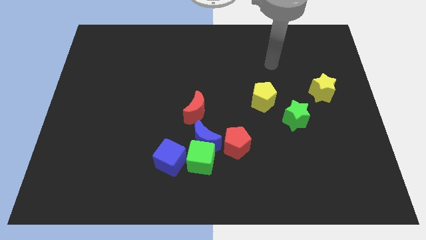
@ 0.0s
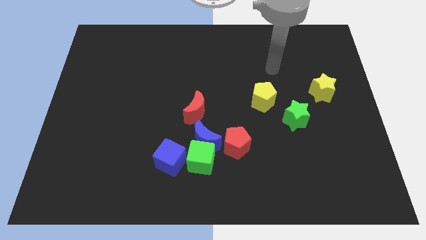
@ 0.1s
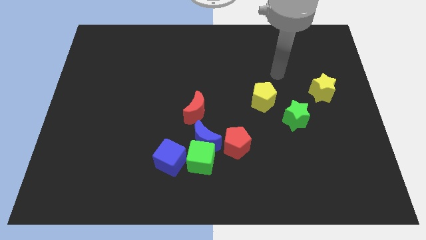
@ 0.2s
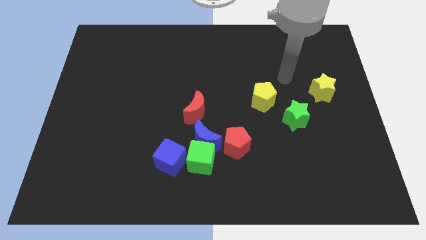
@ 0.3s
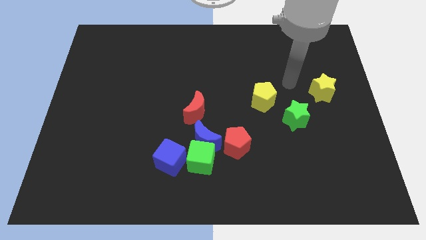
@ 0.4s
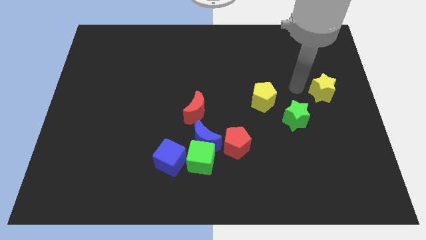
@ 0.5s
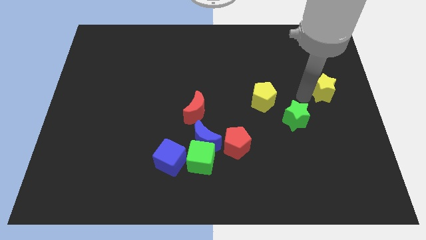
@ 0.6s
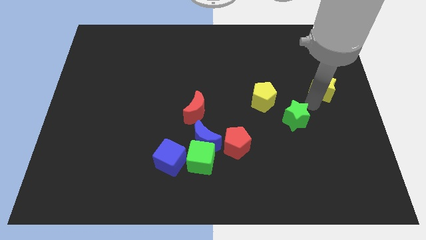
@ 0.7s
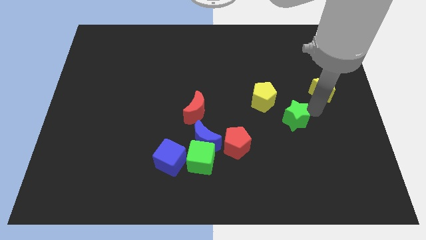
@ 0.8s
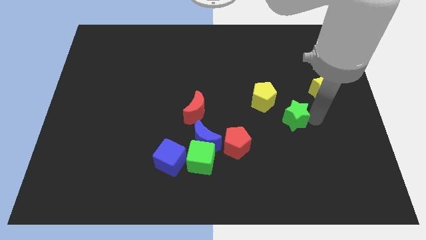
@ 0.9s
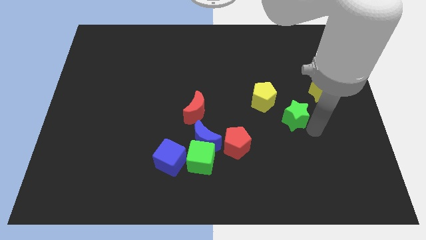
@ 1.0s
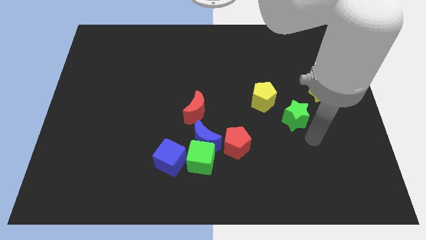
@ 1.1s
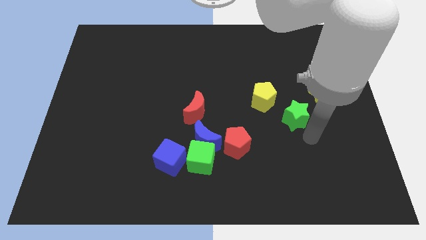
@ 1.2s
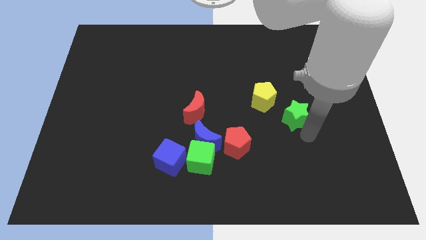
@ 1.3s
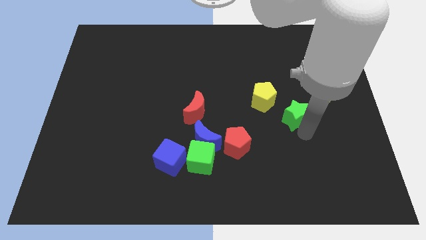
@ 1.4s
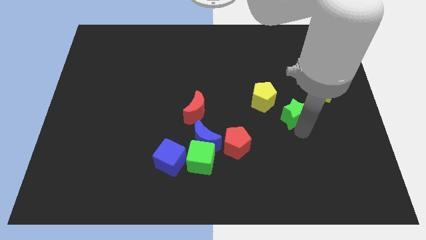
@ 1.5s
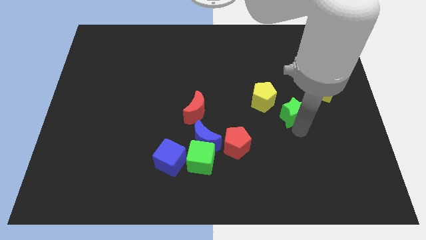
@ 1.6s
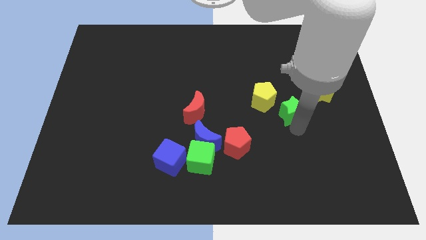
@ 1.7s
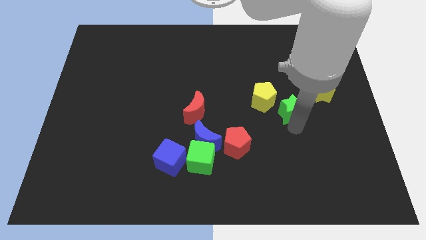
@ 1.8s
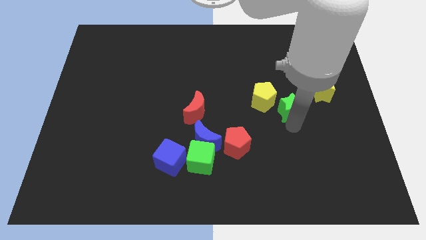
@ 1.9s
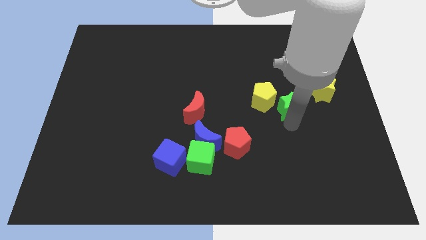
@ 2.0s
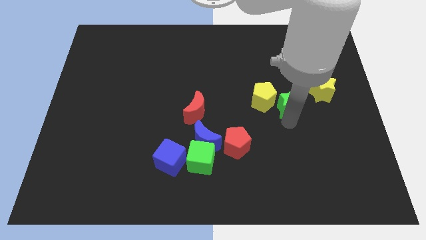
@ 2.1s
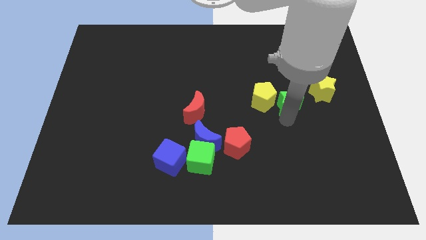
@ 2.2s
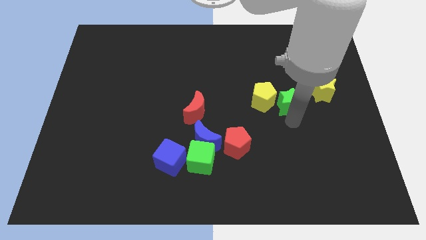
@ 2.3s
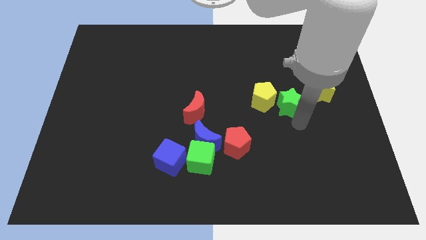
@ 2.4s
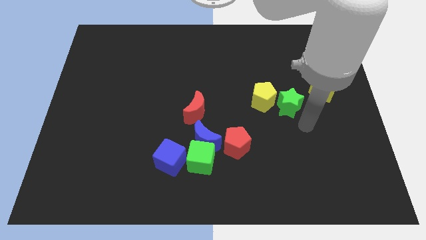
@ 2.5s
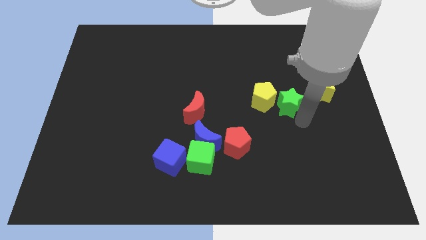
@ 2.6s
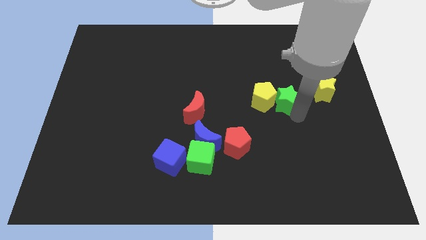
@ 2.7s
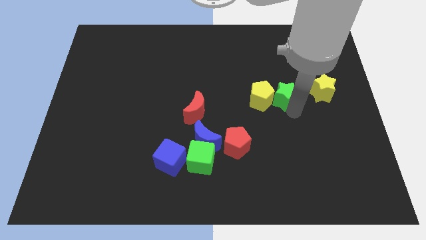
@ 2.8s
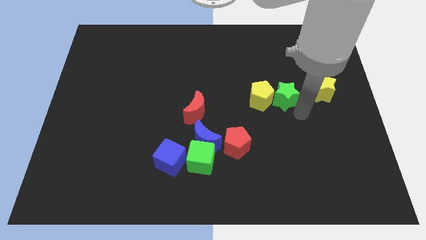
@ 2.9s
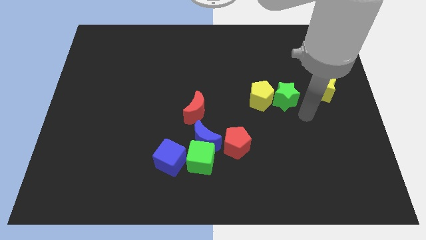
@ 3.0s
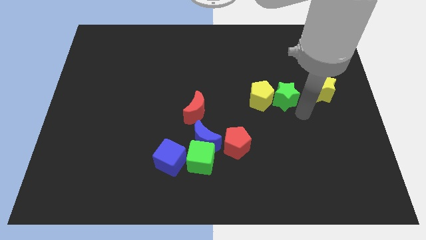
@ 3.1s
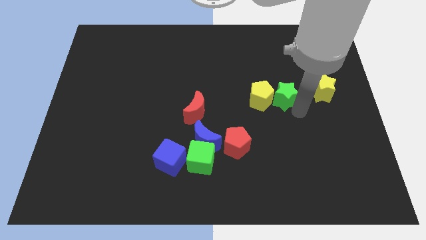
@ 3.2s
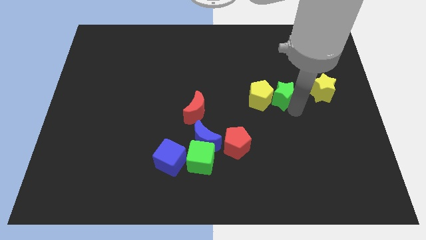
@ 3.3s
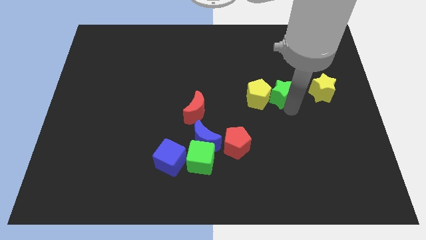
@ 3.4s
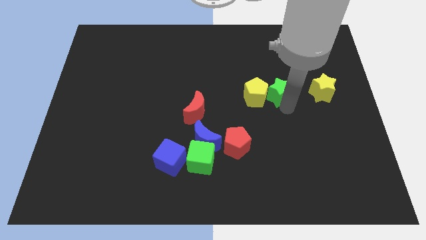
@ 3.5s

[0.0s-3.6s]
slightly push the green star up and to the left diagonally

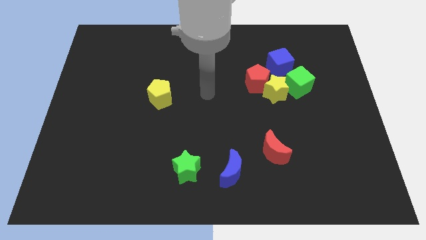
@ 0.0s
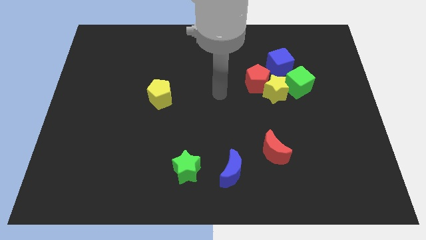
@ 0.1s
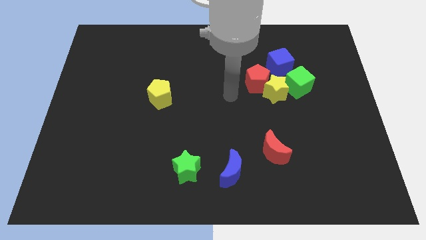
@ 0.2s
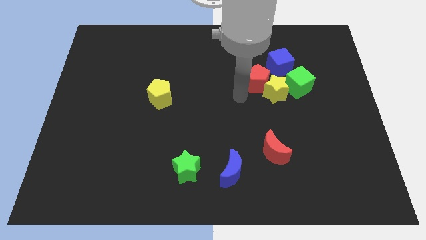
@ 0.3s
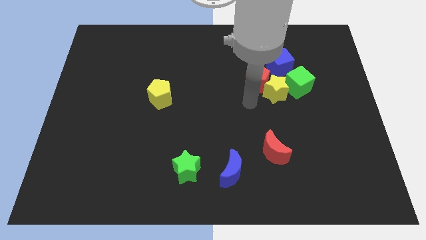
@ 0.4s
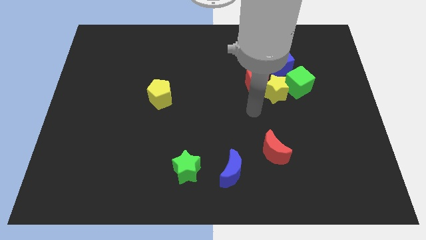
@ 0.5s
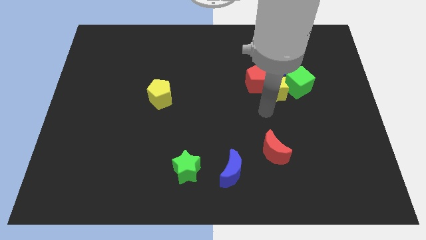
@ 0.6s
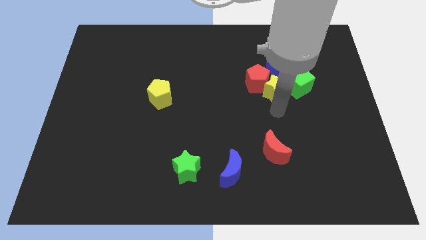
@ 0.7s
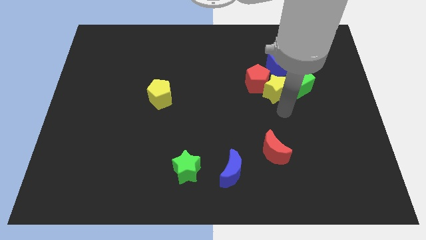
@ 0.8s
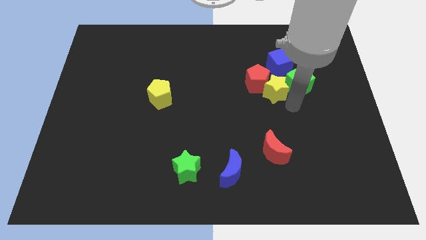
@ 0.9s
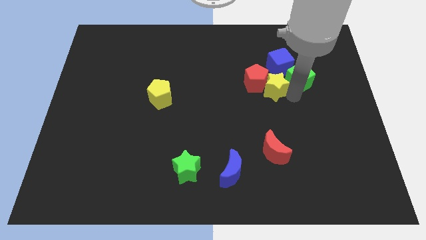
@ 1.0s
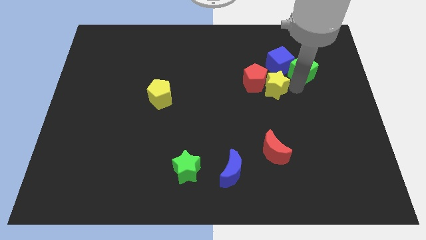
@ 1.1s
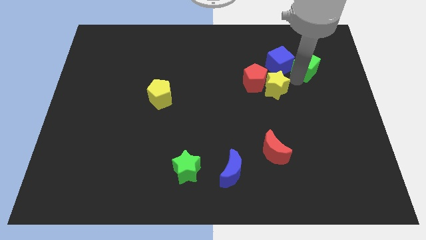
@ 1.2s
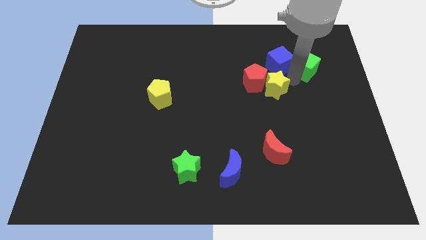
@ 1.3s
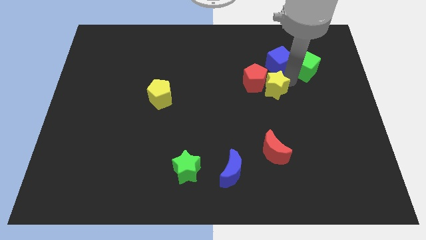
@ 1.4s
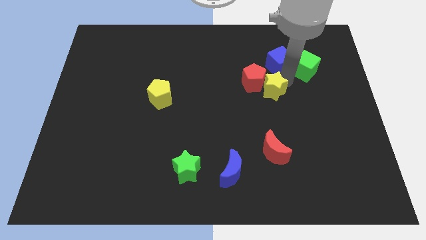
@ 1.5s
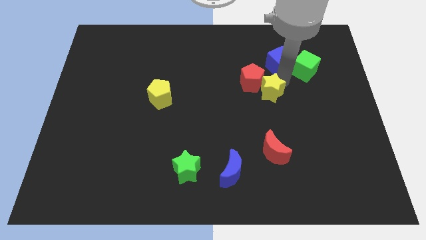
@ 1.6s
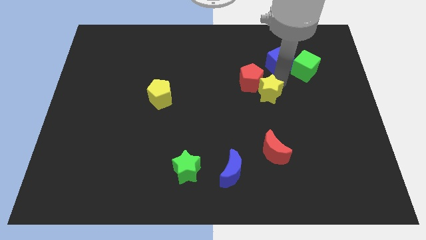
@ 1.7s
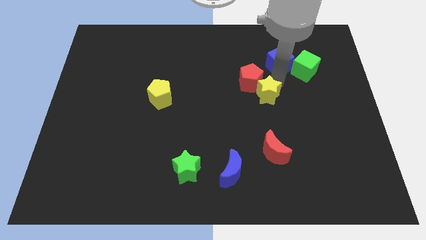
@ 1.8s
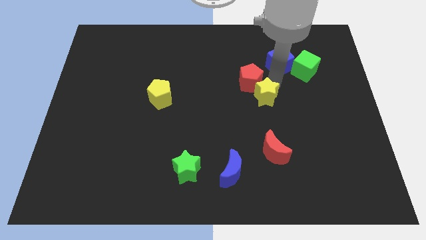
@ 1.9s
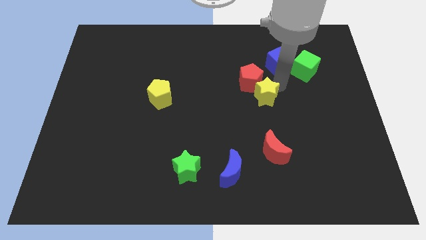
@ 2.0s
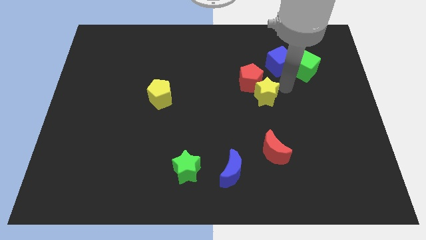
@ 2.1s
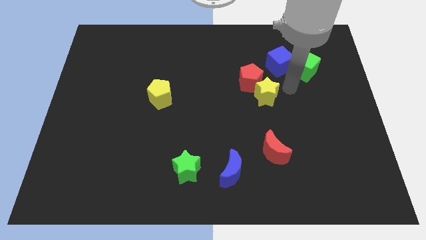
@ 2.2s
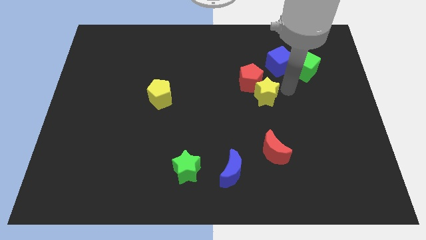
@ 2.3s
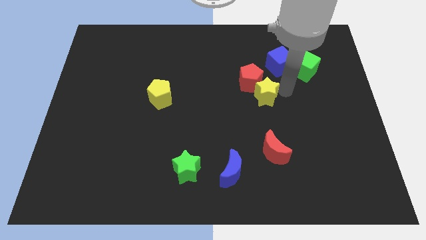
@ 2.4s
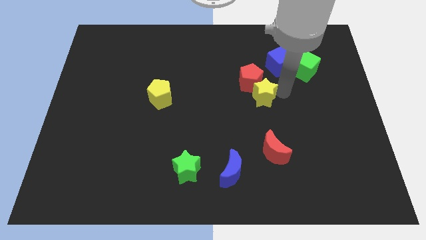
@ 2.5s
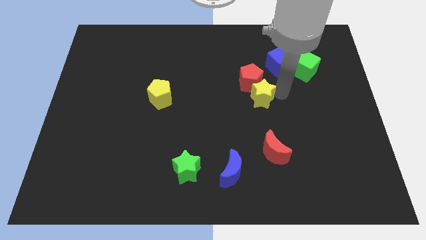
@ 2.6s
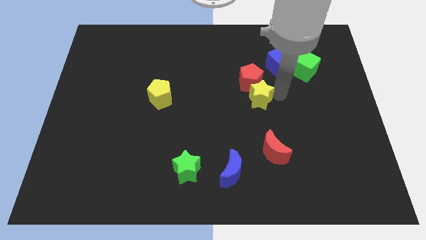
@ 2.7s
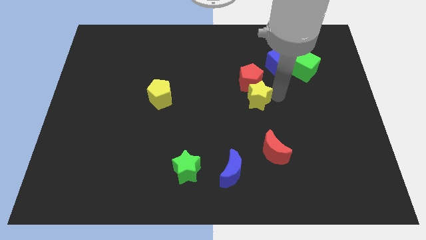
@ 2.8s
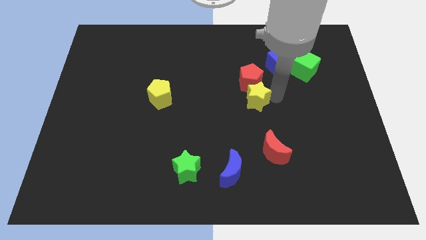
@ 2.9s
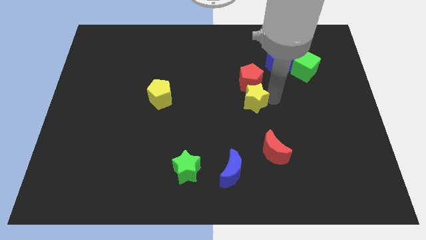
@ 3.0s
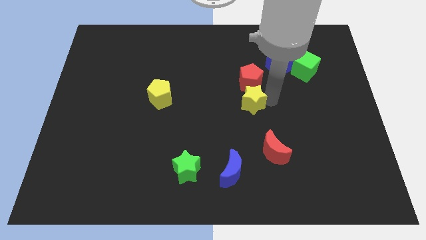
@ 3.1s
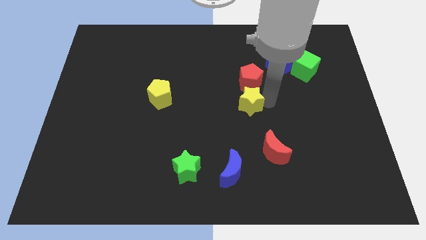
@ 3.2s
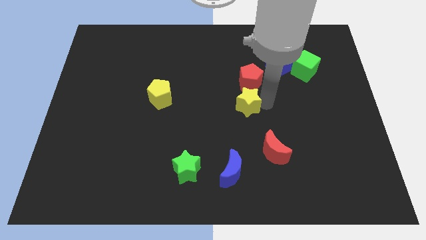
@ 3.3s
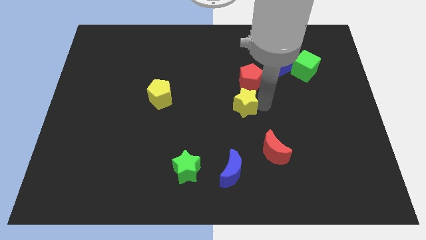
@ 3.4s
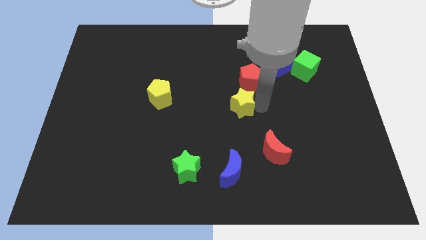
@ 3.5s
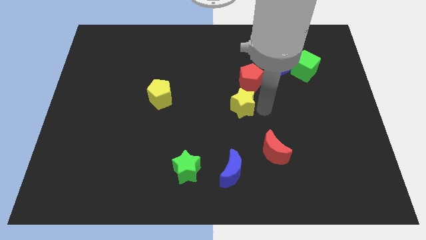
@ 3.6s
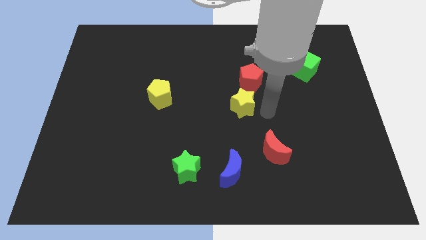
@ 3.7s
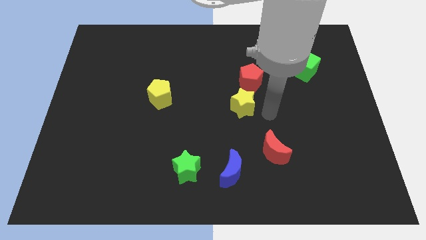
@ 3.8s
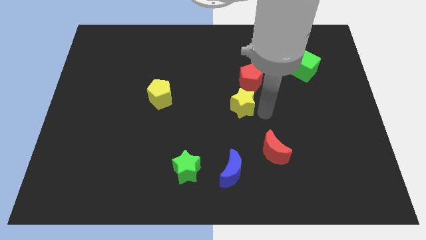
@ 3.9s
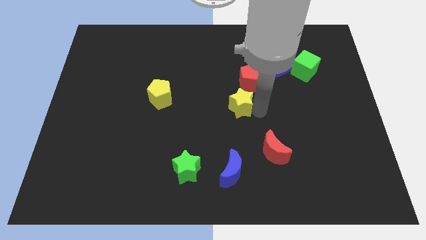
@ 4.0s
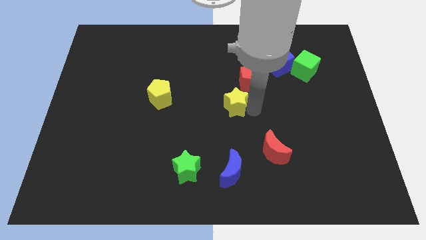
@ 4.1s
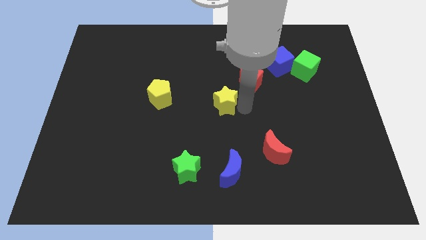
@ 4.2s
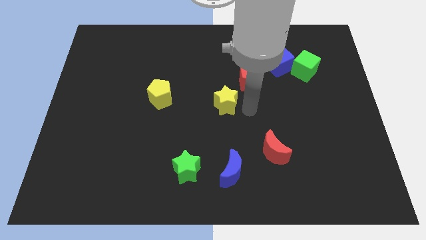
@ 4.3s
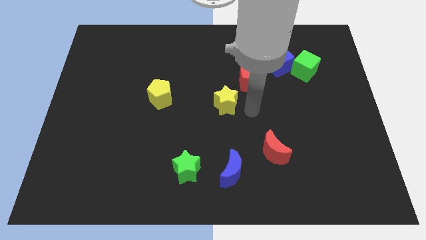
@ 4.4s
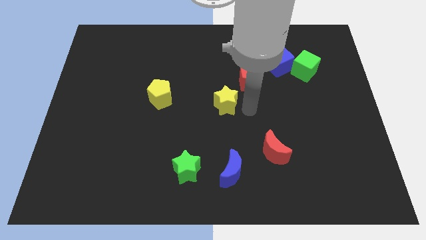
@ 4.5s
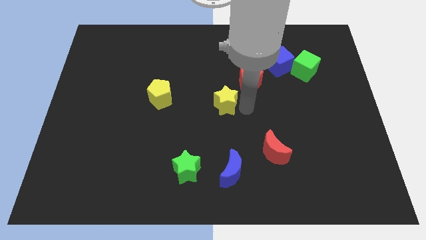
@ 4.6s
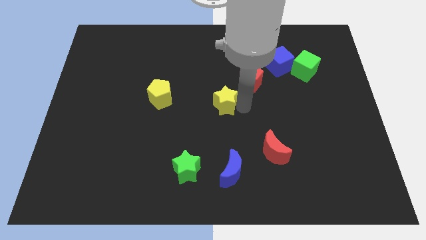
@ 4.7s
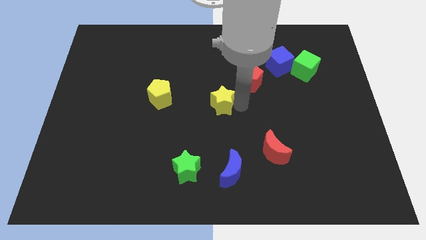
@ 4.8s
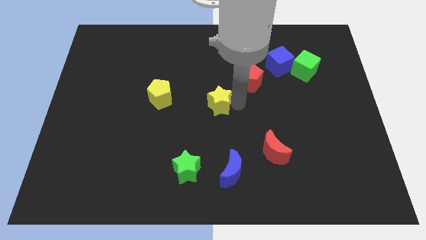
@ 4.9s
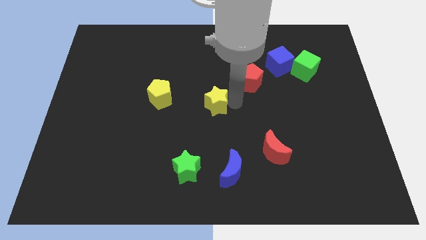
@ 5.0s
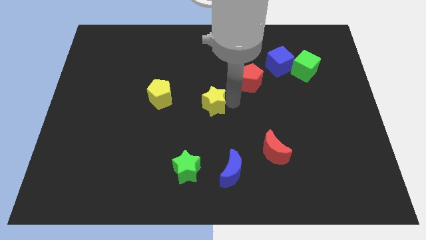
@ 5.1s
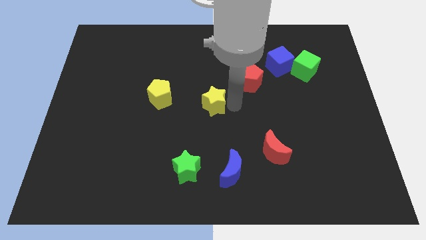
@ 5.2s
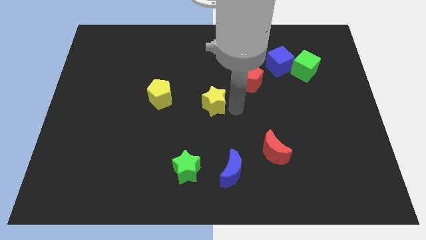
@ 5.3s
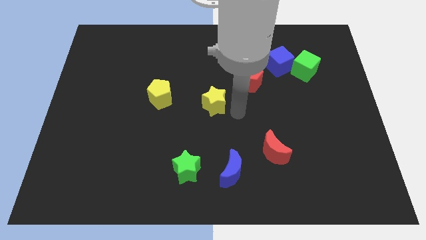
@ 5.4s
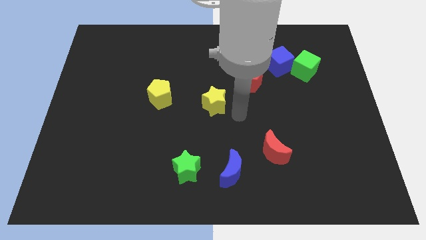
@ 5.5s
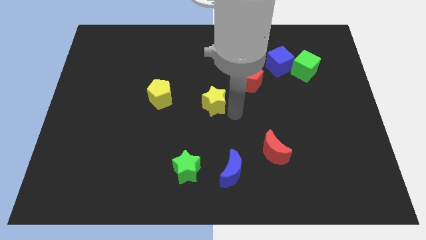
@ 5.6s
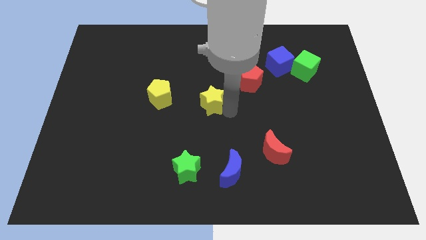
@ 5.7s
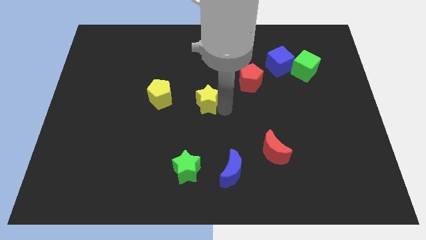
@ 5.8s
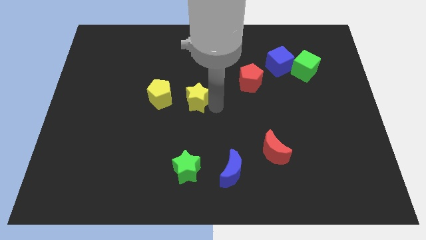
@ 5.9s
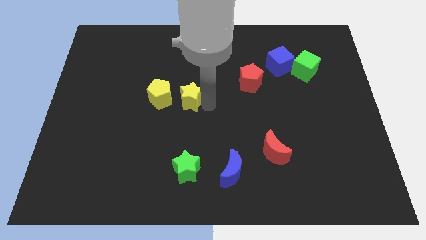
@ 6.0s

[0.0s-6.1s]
slide the yellow star to the left
